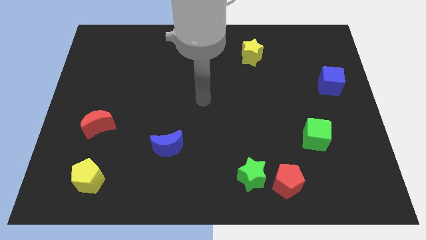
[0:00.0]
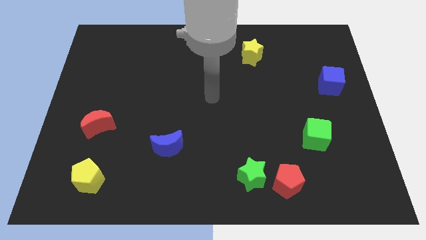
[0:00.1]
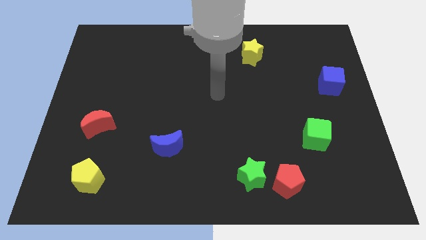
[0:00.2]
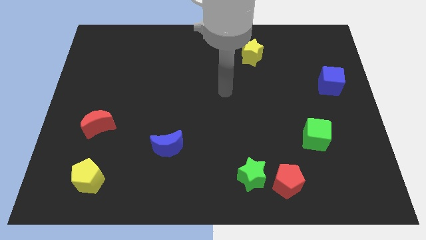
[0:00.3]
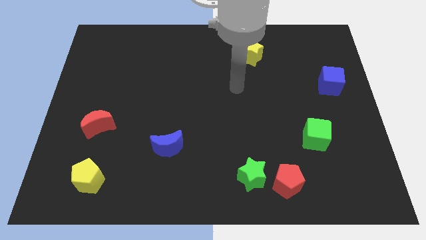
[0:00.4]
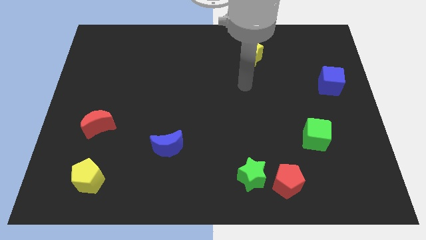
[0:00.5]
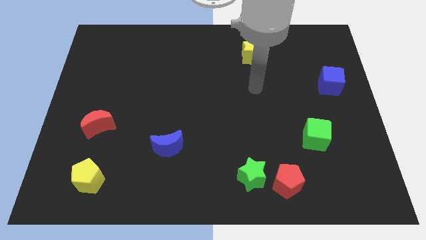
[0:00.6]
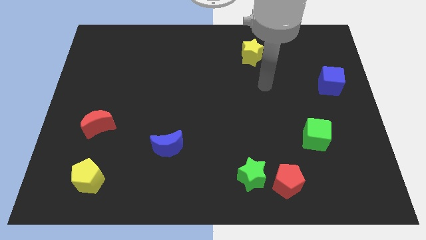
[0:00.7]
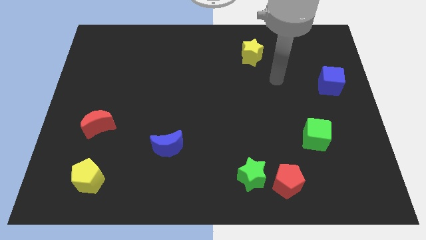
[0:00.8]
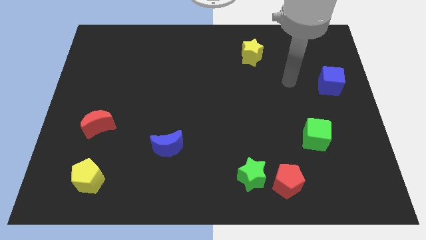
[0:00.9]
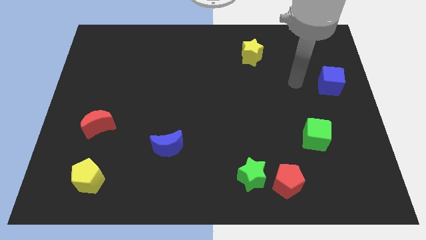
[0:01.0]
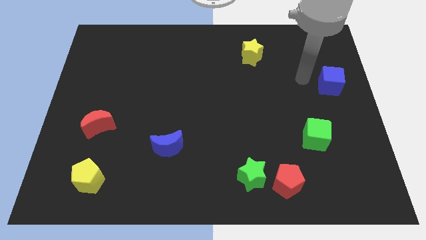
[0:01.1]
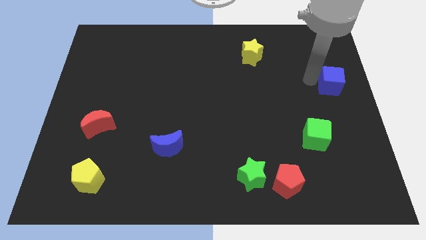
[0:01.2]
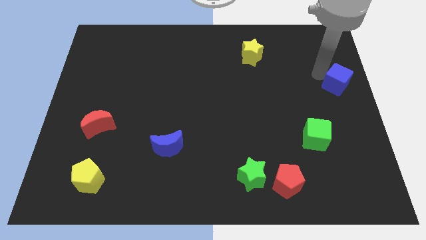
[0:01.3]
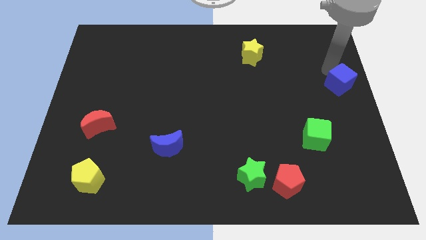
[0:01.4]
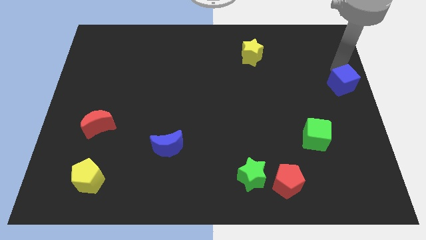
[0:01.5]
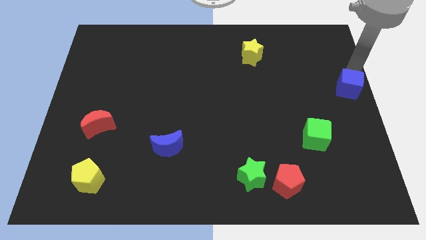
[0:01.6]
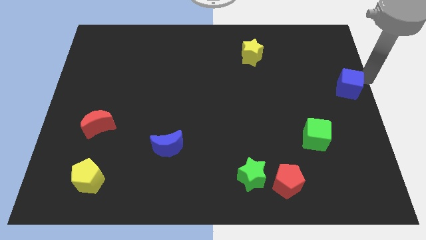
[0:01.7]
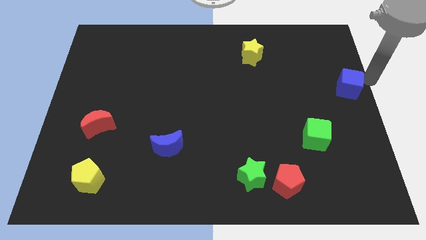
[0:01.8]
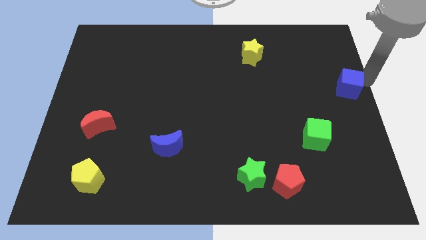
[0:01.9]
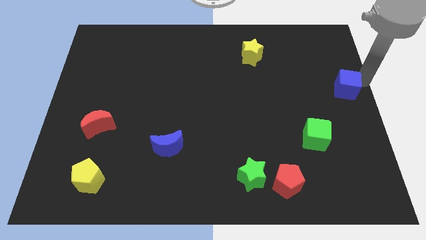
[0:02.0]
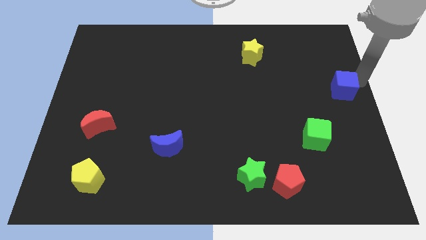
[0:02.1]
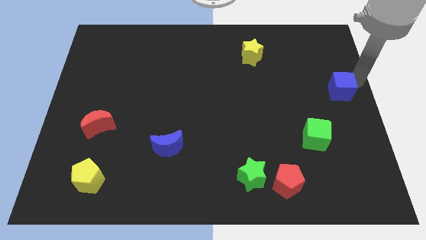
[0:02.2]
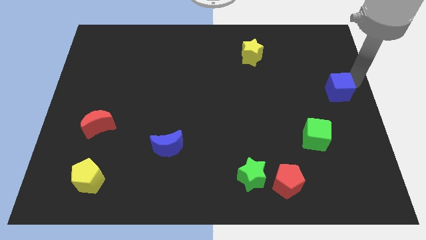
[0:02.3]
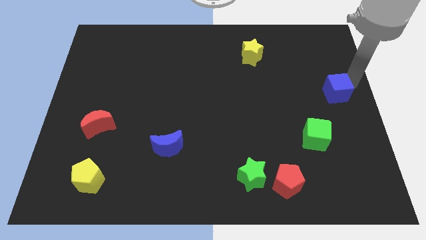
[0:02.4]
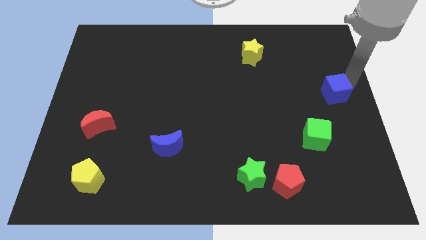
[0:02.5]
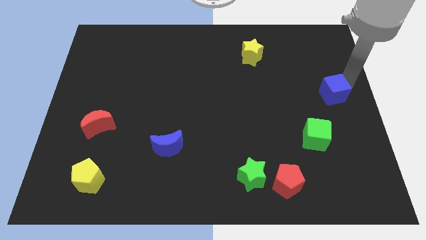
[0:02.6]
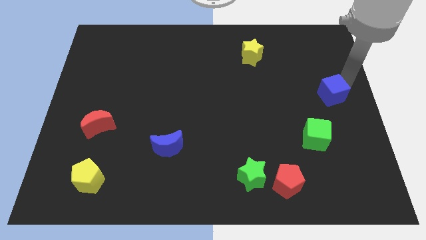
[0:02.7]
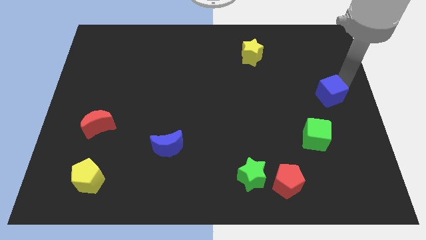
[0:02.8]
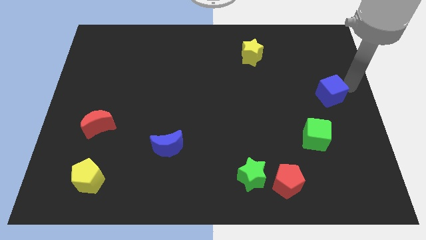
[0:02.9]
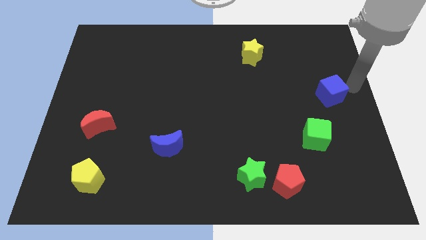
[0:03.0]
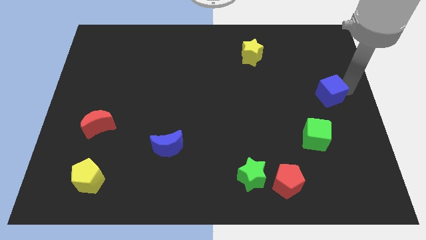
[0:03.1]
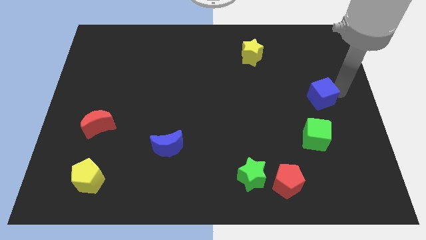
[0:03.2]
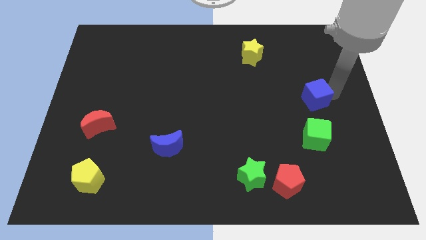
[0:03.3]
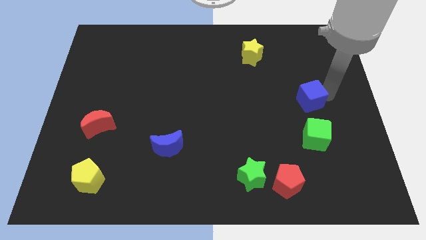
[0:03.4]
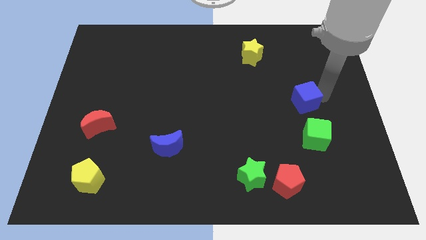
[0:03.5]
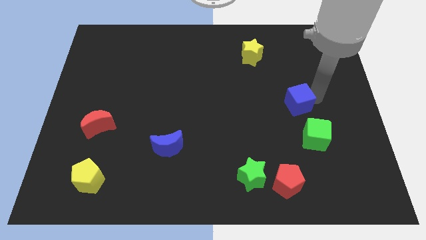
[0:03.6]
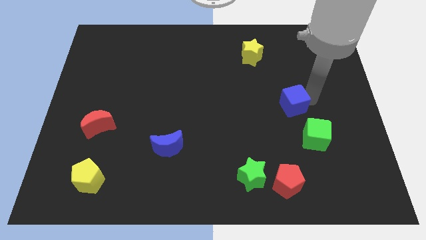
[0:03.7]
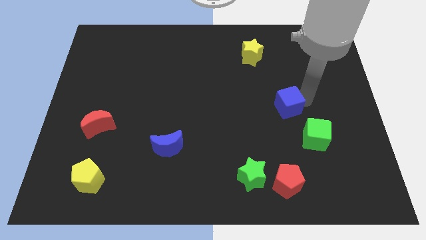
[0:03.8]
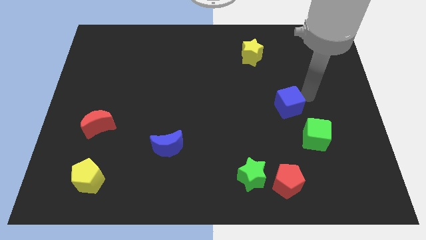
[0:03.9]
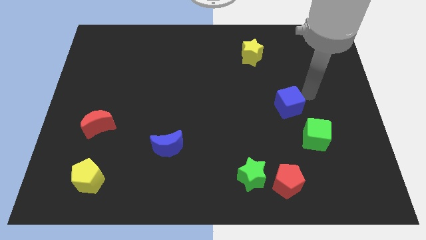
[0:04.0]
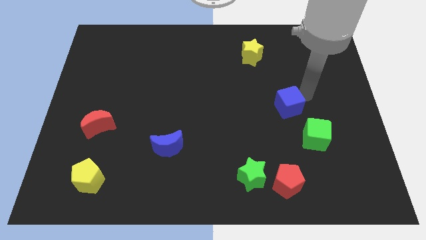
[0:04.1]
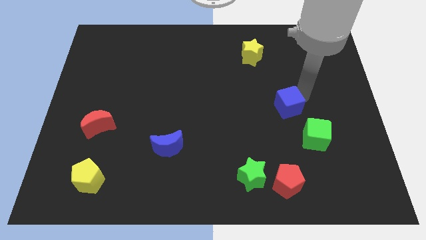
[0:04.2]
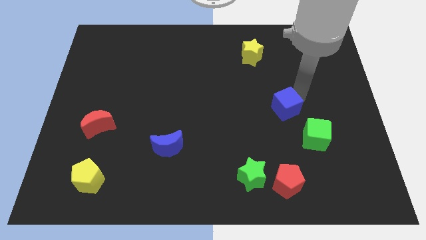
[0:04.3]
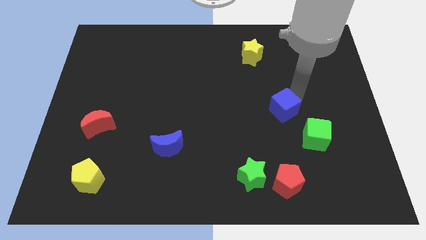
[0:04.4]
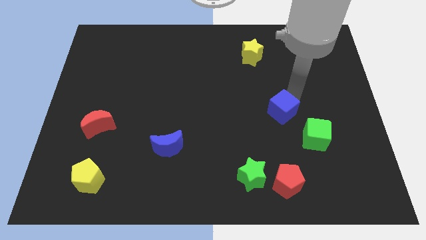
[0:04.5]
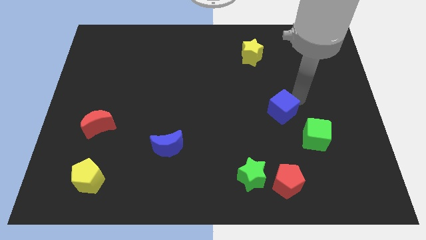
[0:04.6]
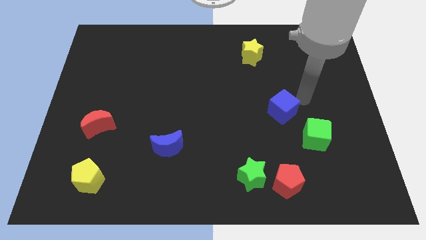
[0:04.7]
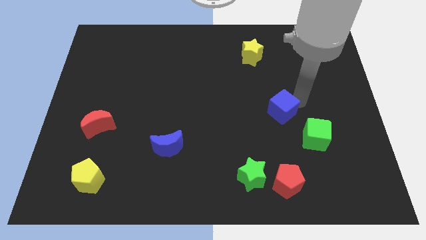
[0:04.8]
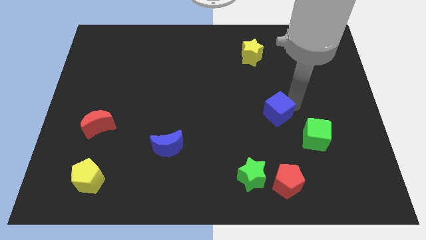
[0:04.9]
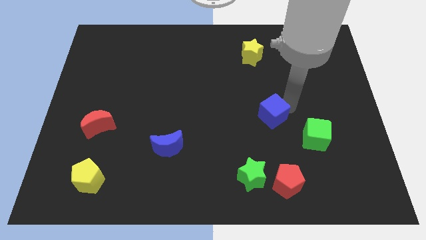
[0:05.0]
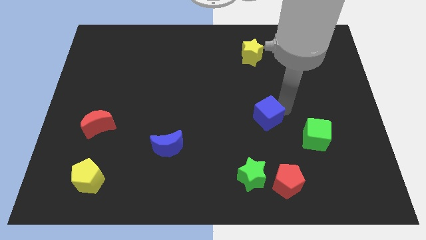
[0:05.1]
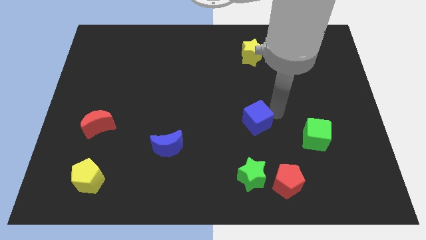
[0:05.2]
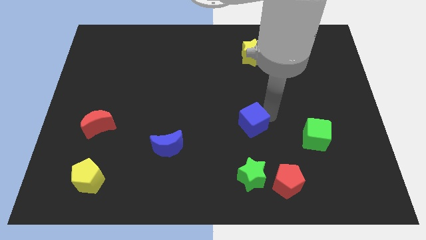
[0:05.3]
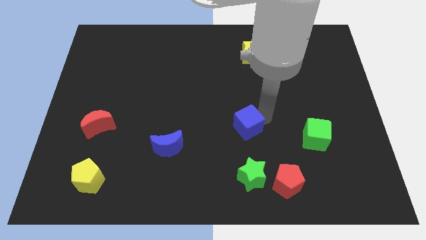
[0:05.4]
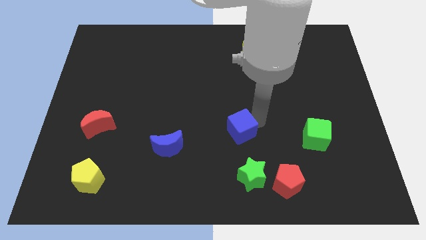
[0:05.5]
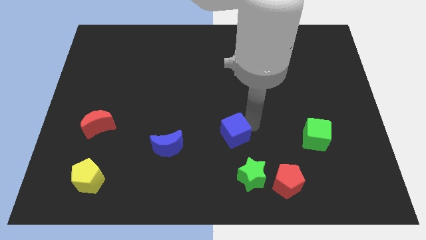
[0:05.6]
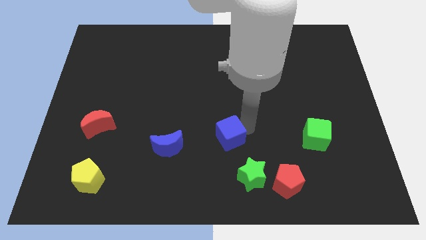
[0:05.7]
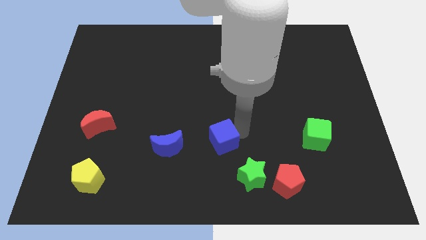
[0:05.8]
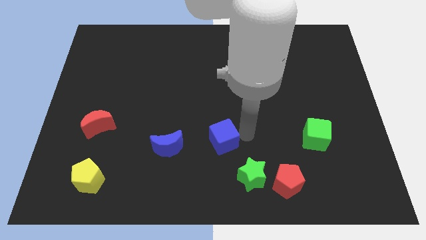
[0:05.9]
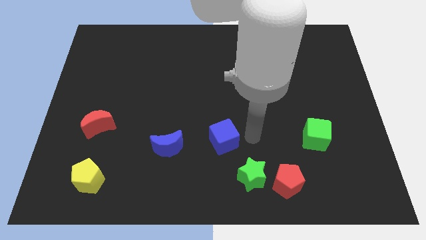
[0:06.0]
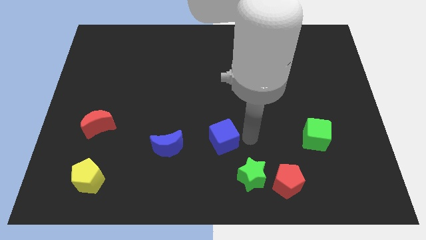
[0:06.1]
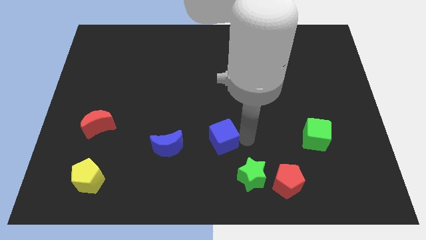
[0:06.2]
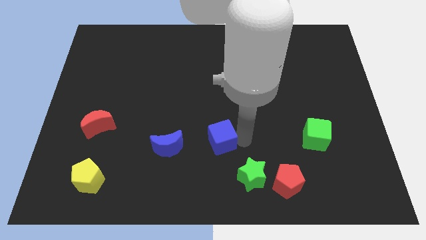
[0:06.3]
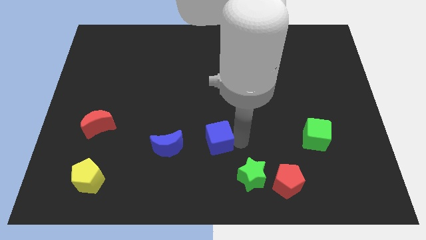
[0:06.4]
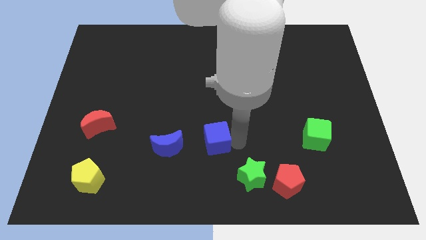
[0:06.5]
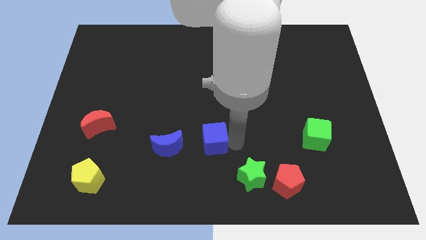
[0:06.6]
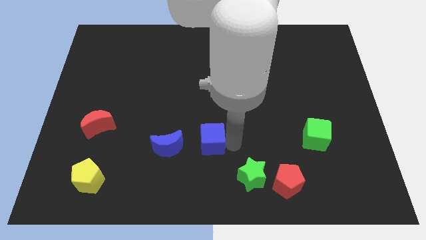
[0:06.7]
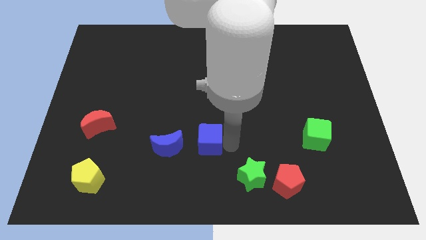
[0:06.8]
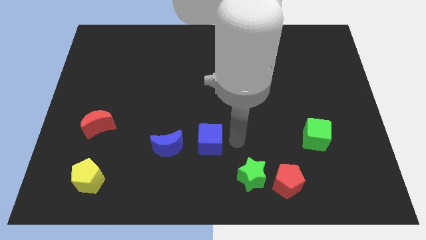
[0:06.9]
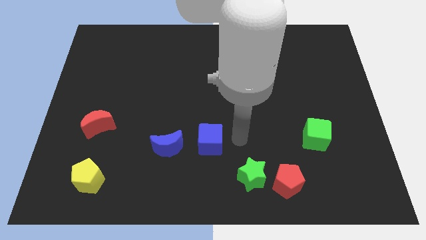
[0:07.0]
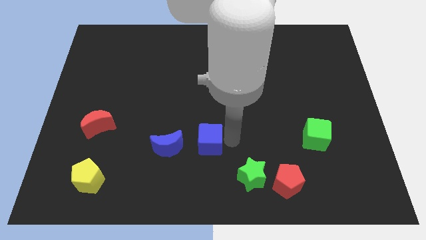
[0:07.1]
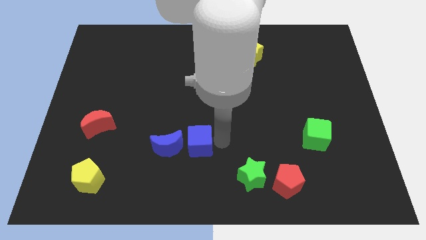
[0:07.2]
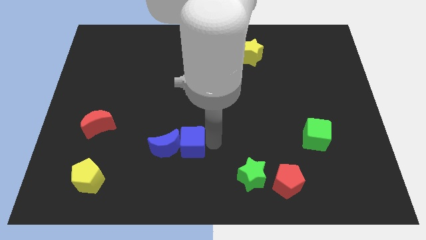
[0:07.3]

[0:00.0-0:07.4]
move the blue cube close to the blue moon

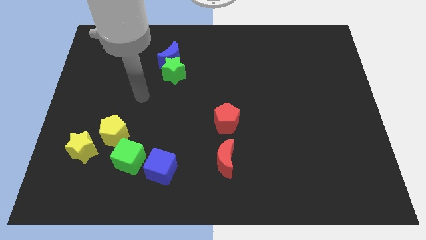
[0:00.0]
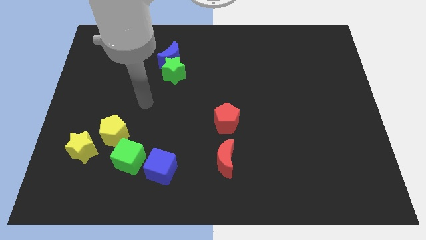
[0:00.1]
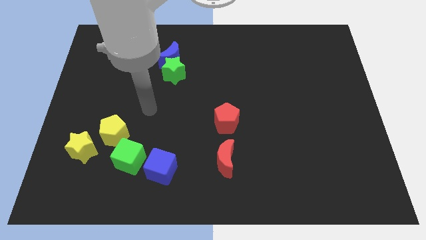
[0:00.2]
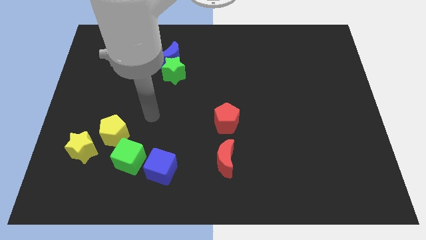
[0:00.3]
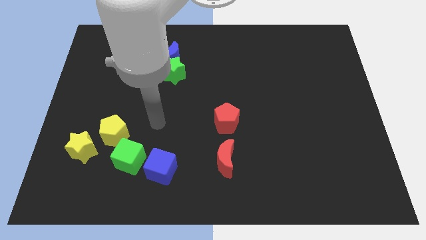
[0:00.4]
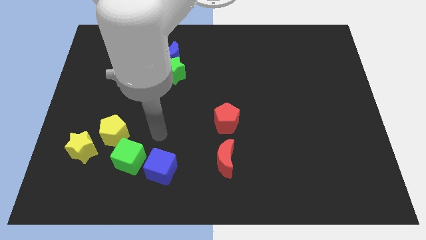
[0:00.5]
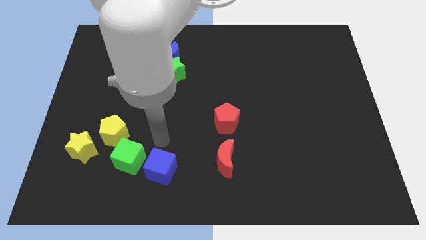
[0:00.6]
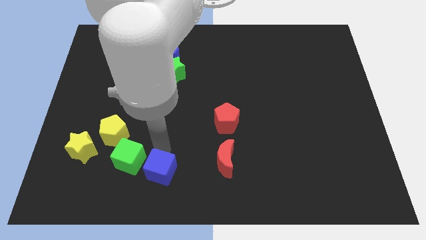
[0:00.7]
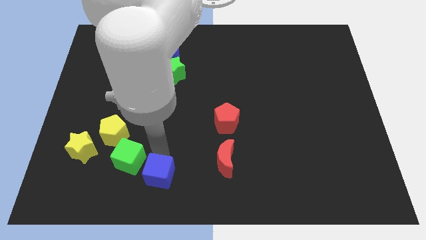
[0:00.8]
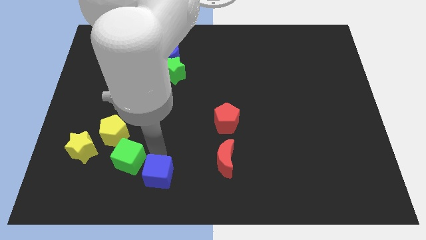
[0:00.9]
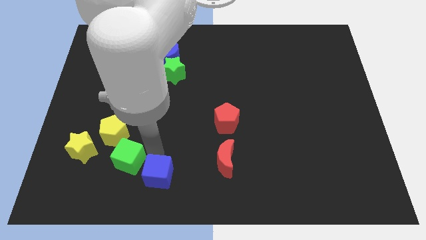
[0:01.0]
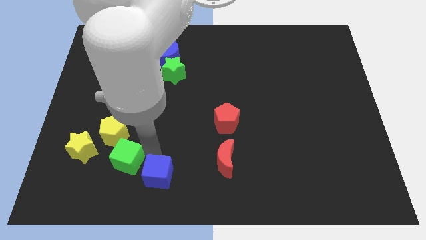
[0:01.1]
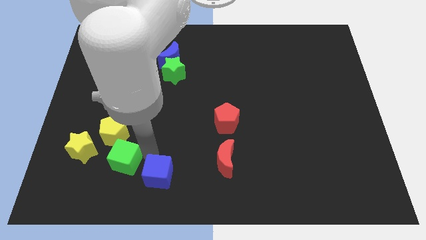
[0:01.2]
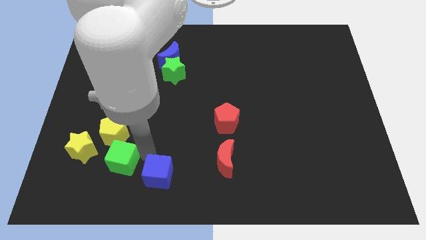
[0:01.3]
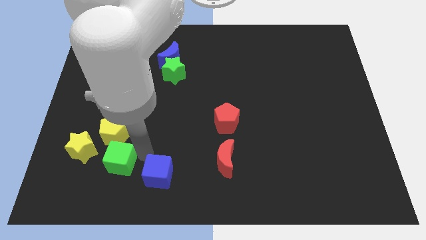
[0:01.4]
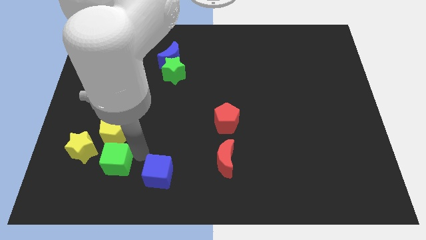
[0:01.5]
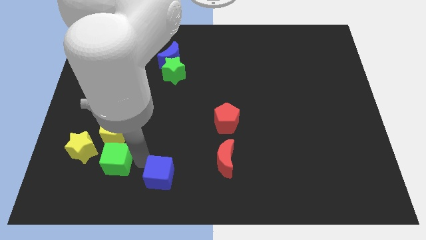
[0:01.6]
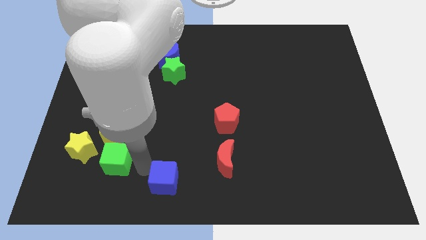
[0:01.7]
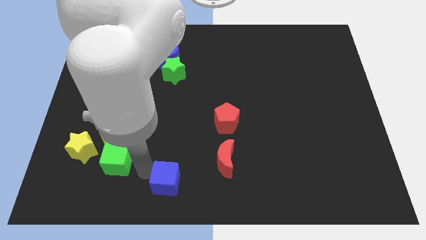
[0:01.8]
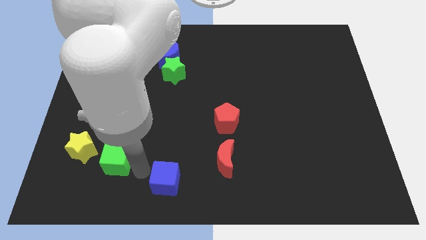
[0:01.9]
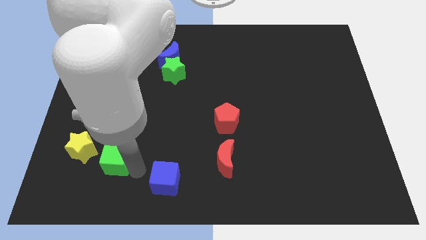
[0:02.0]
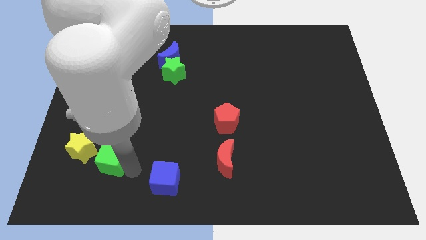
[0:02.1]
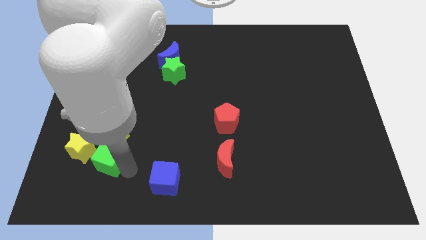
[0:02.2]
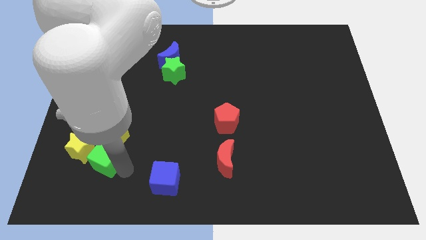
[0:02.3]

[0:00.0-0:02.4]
move the green cube to the yellow star
